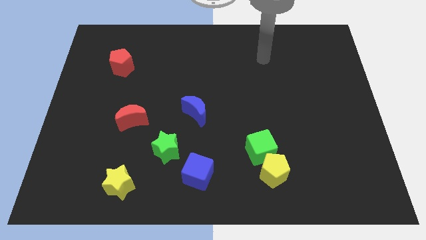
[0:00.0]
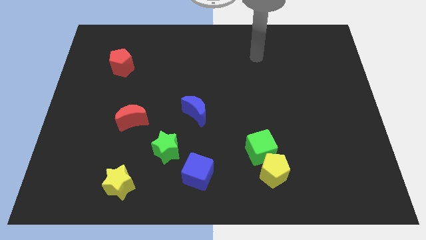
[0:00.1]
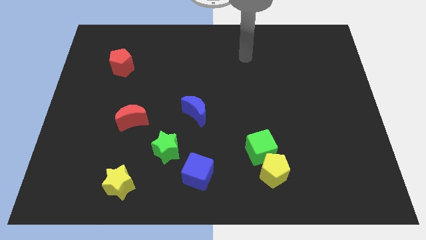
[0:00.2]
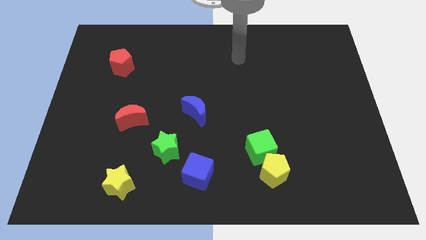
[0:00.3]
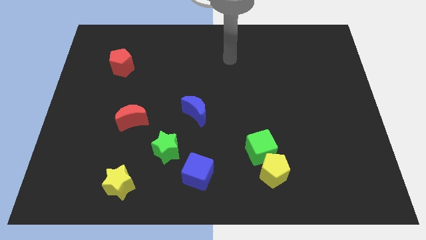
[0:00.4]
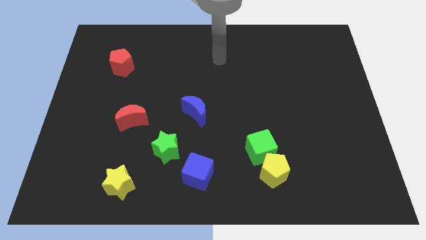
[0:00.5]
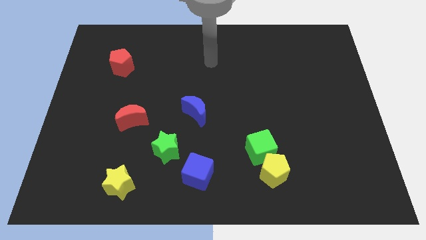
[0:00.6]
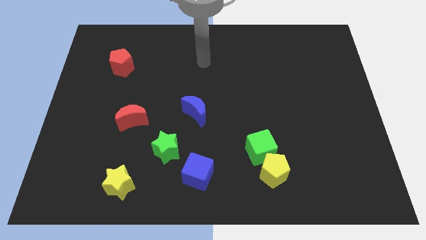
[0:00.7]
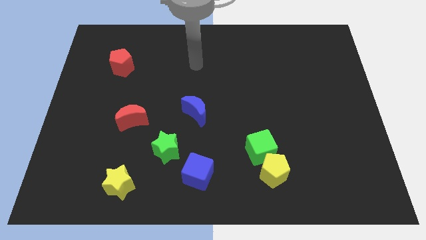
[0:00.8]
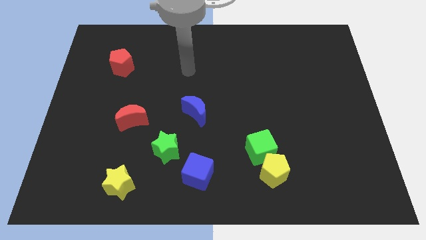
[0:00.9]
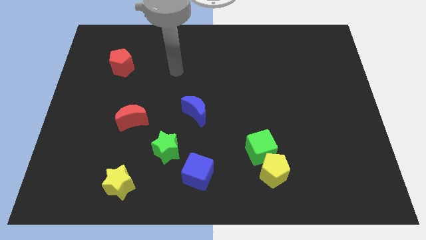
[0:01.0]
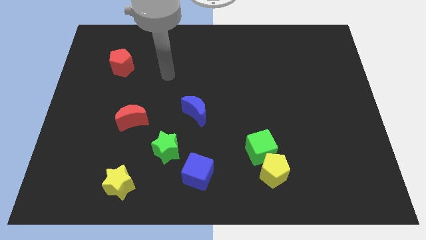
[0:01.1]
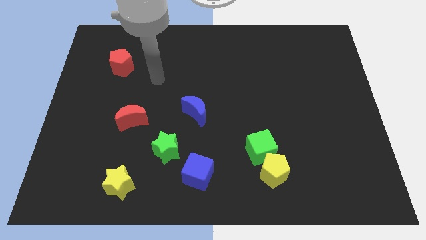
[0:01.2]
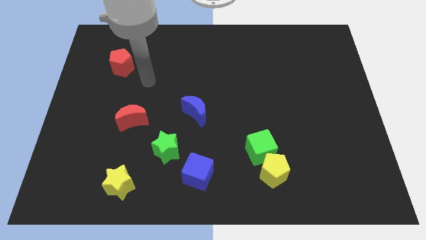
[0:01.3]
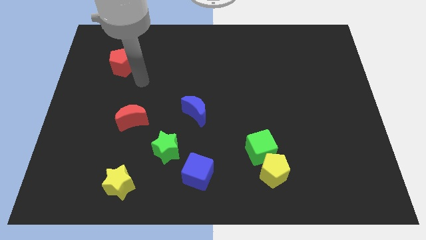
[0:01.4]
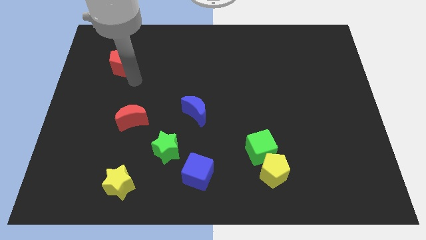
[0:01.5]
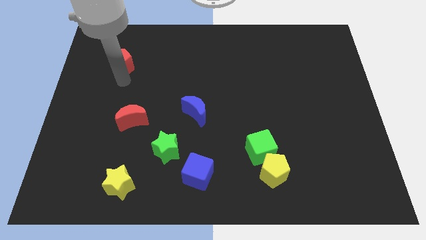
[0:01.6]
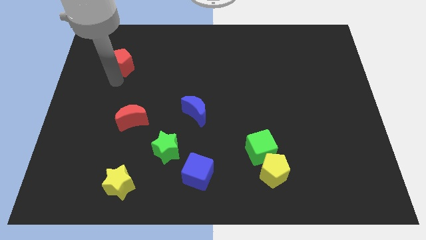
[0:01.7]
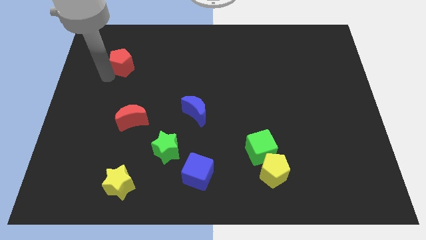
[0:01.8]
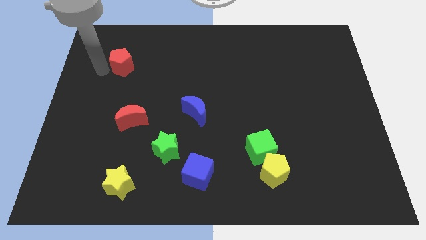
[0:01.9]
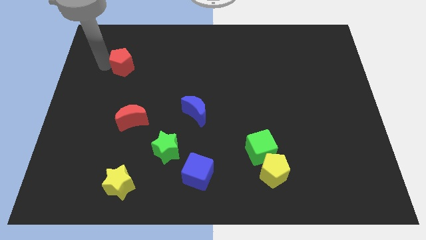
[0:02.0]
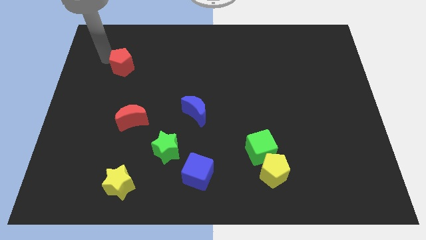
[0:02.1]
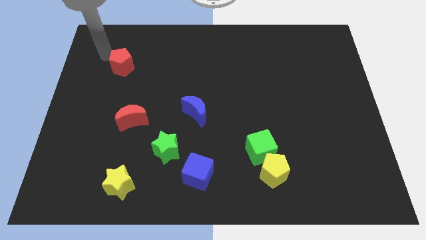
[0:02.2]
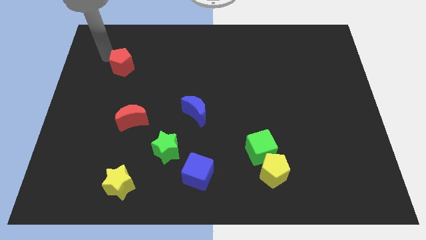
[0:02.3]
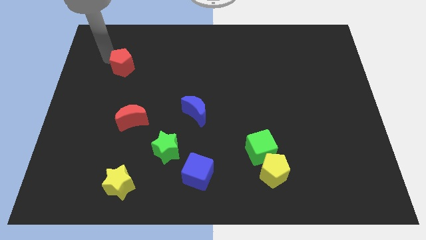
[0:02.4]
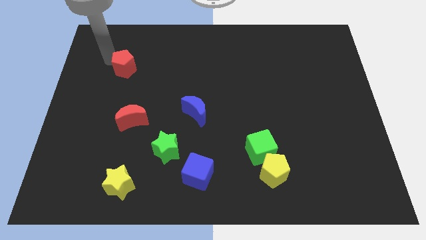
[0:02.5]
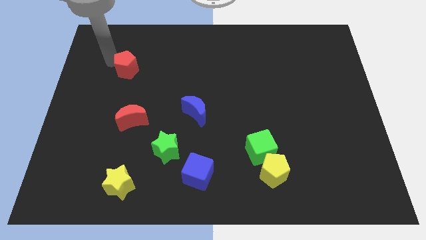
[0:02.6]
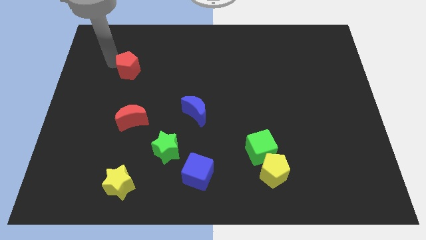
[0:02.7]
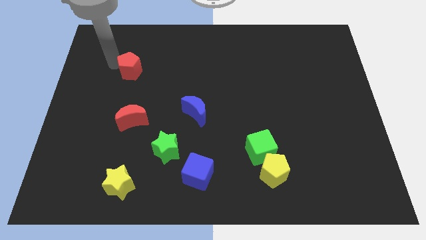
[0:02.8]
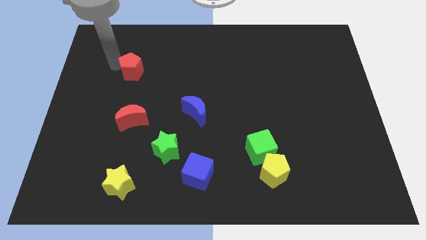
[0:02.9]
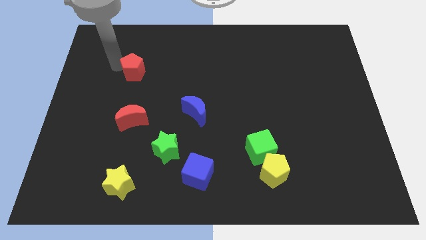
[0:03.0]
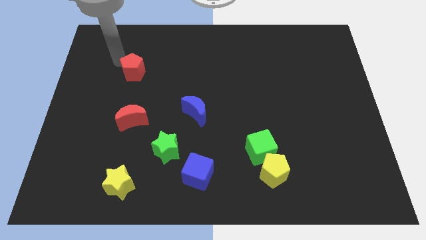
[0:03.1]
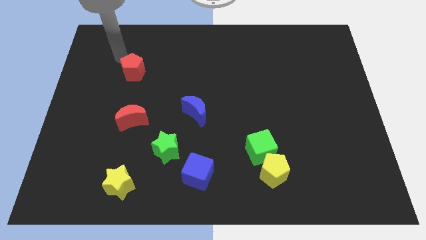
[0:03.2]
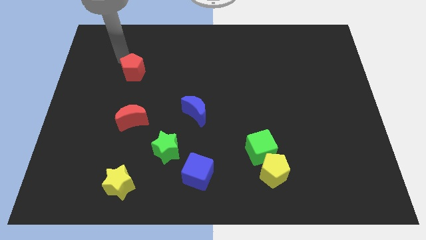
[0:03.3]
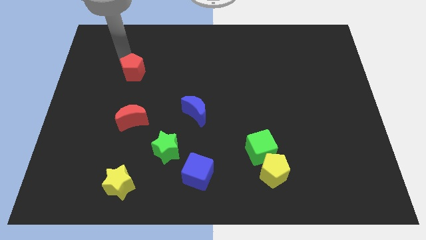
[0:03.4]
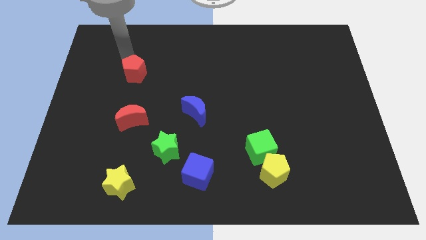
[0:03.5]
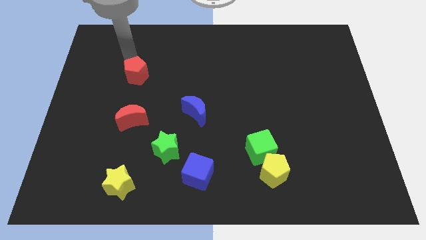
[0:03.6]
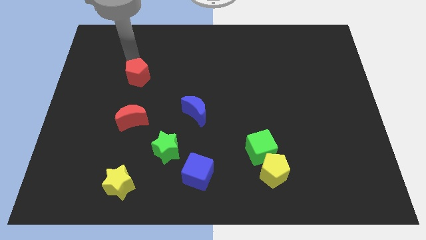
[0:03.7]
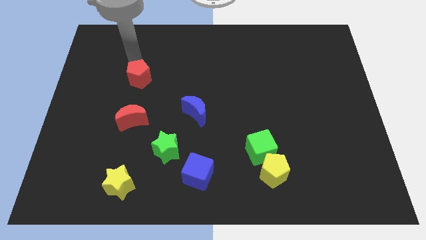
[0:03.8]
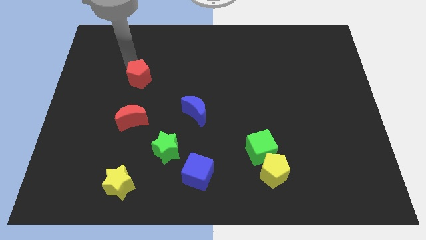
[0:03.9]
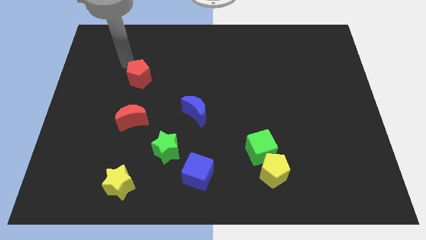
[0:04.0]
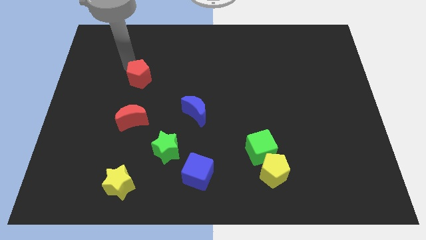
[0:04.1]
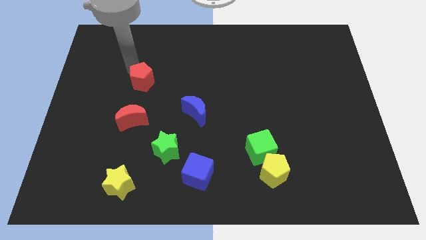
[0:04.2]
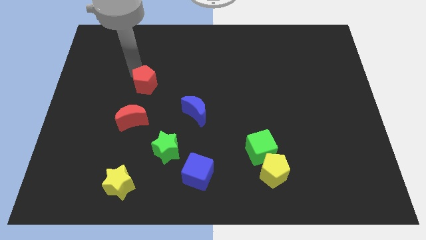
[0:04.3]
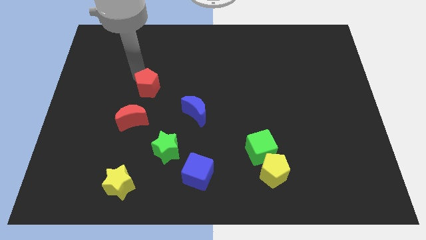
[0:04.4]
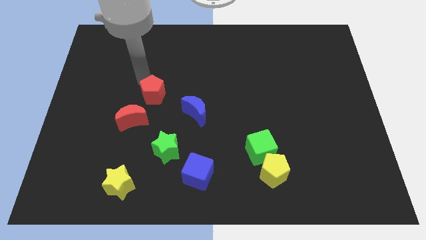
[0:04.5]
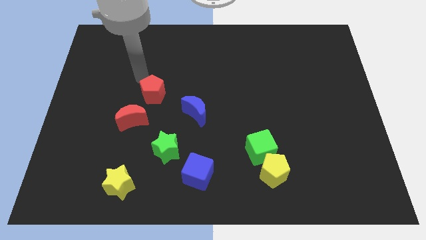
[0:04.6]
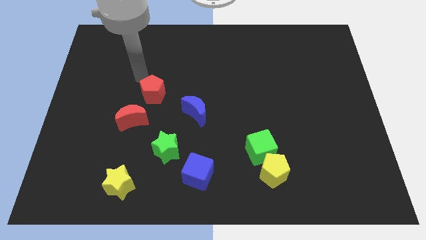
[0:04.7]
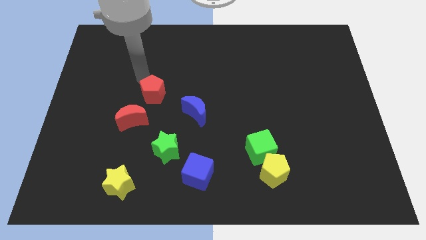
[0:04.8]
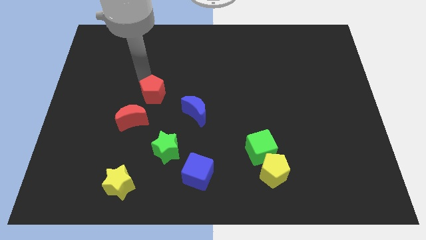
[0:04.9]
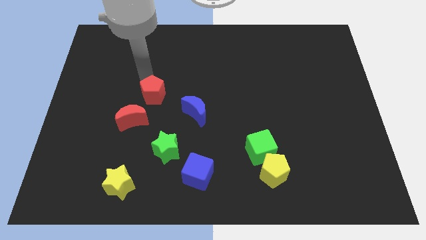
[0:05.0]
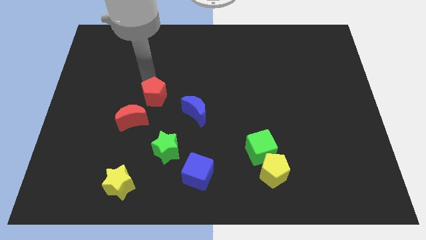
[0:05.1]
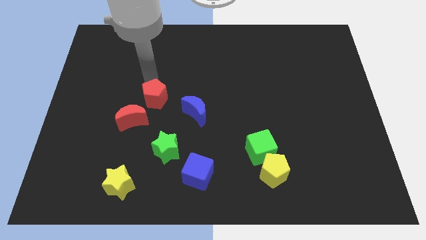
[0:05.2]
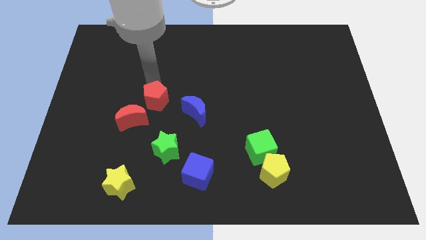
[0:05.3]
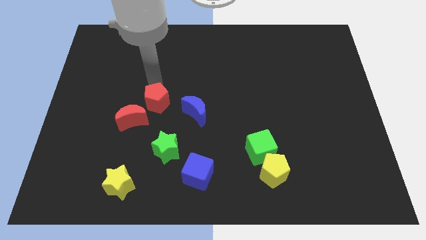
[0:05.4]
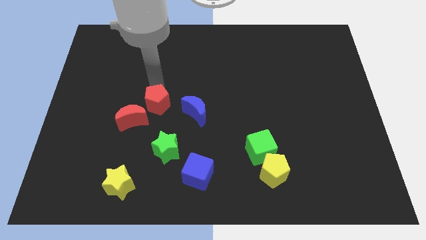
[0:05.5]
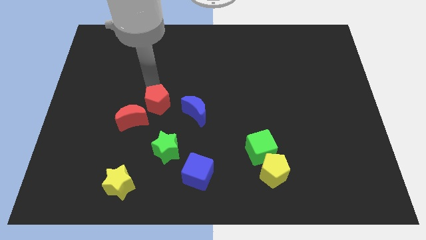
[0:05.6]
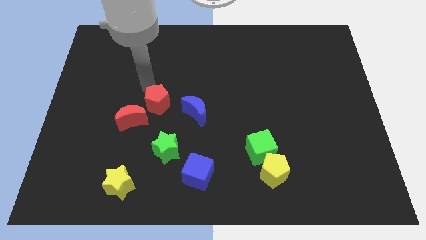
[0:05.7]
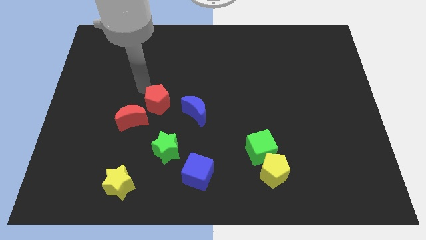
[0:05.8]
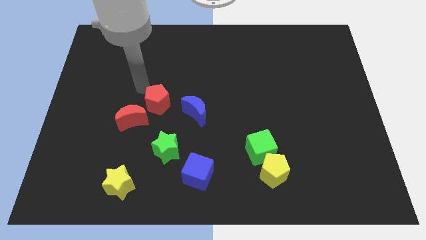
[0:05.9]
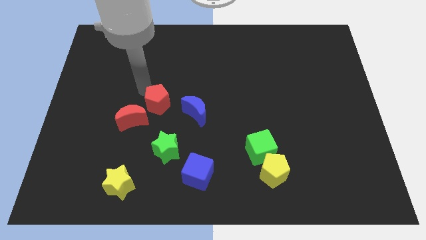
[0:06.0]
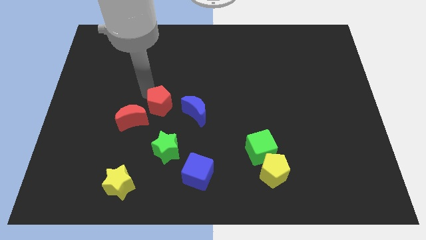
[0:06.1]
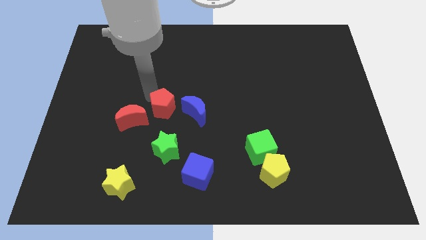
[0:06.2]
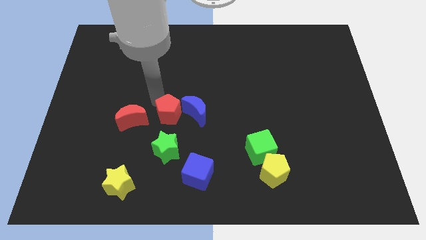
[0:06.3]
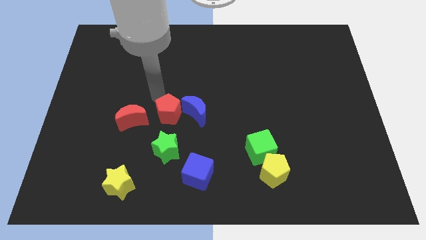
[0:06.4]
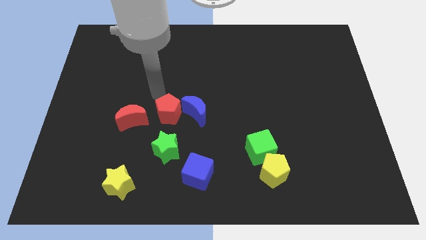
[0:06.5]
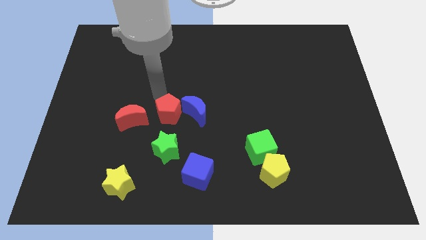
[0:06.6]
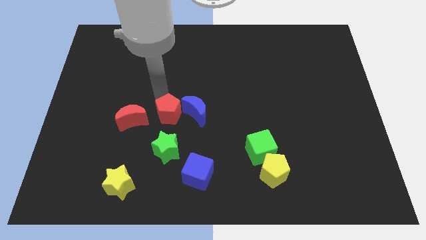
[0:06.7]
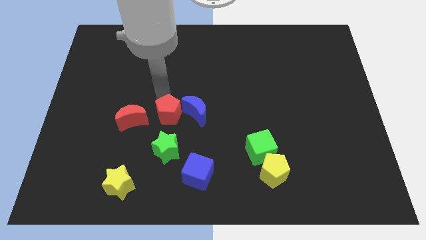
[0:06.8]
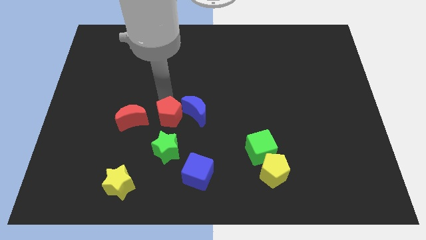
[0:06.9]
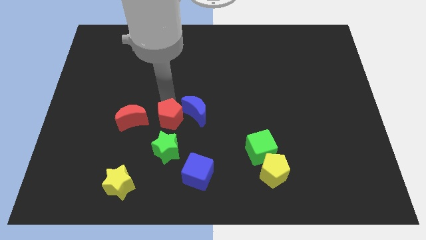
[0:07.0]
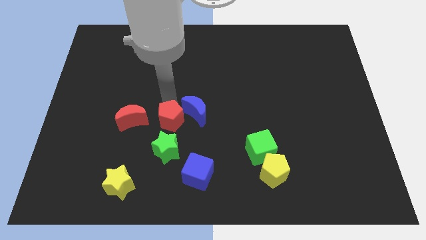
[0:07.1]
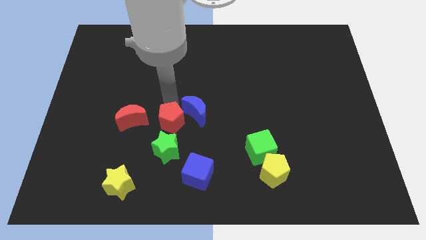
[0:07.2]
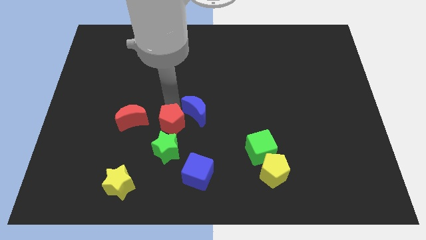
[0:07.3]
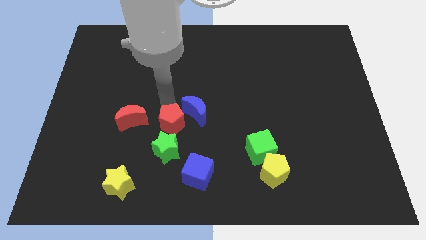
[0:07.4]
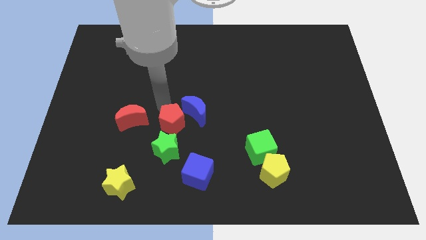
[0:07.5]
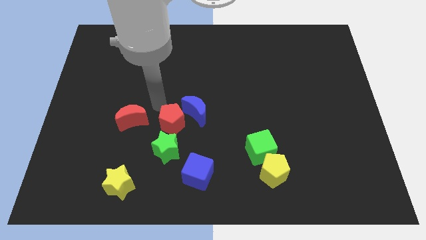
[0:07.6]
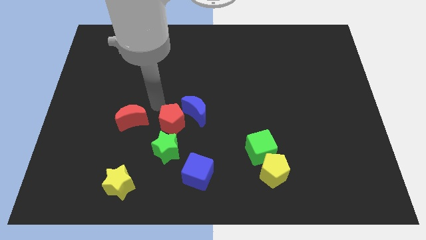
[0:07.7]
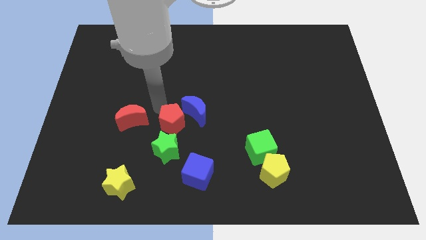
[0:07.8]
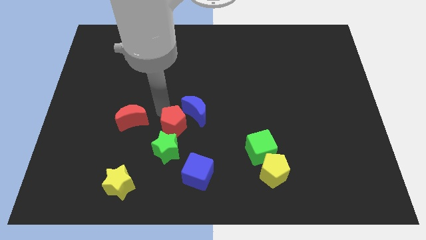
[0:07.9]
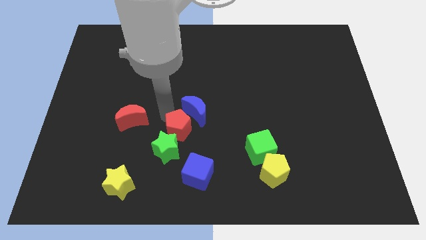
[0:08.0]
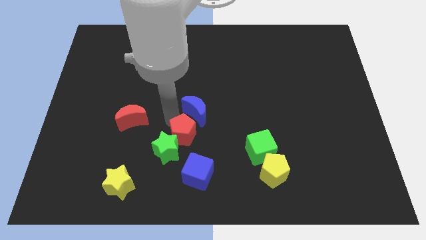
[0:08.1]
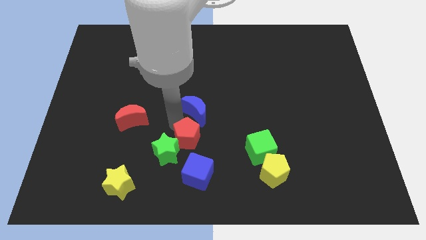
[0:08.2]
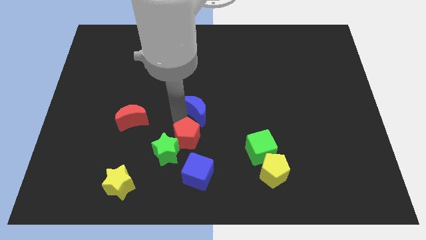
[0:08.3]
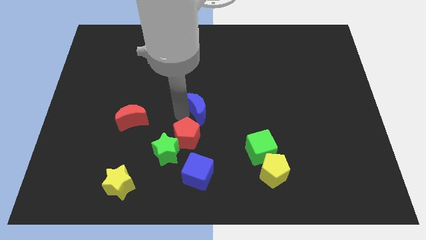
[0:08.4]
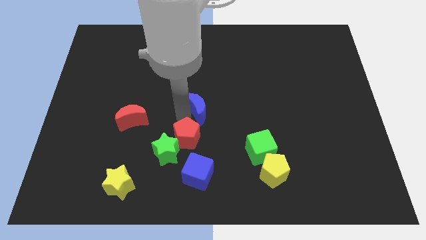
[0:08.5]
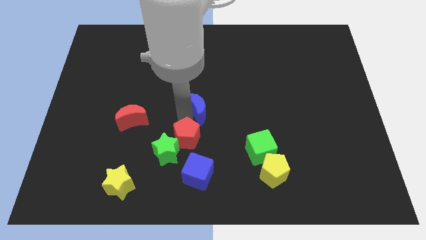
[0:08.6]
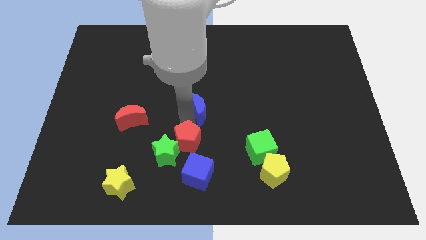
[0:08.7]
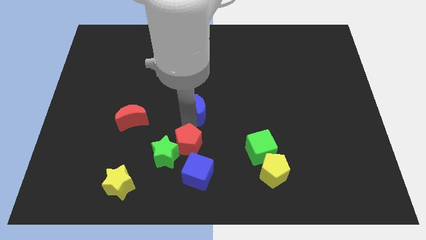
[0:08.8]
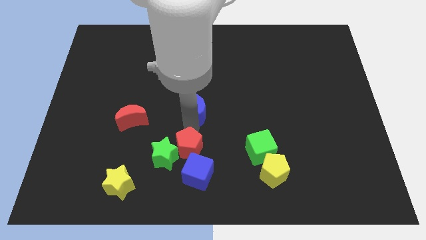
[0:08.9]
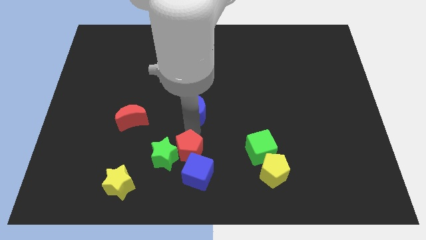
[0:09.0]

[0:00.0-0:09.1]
slide the red pentagon towards the blue cube
